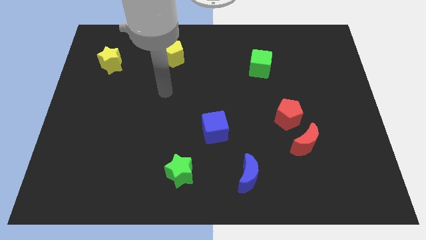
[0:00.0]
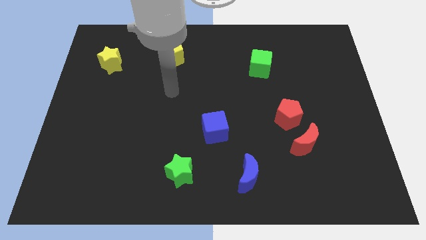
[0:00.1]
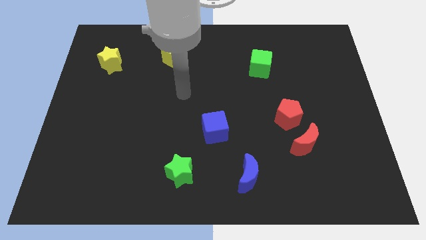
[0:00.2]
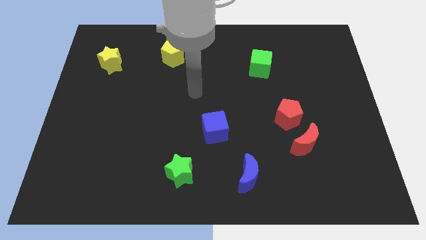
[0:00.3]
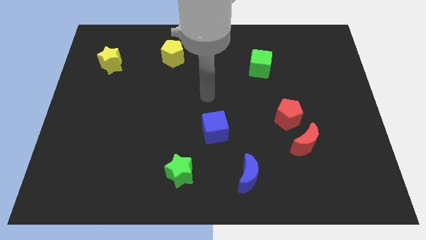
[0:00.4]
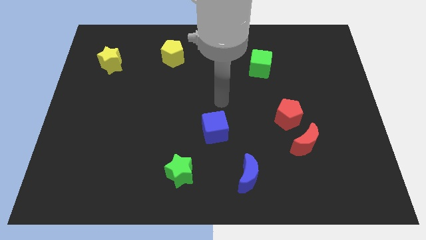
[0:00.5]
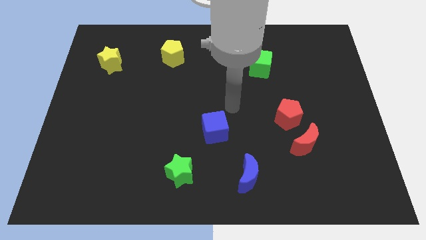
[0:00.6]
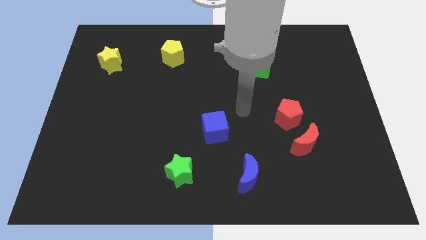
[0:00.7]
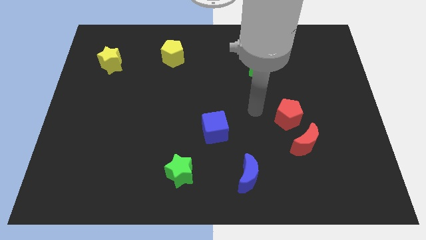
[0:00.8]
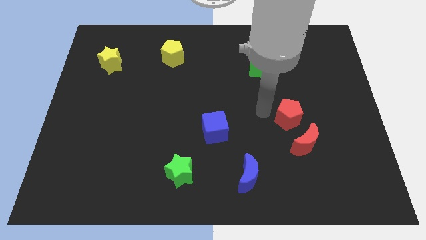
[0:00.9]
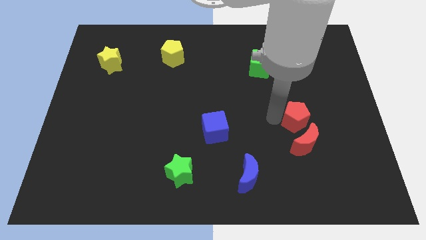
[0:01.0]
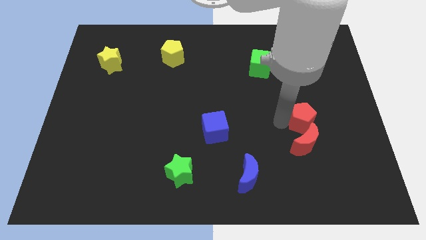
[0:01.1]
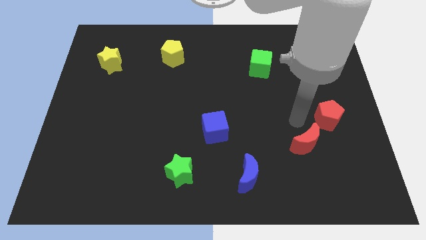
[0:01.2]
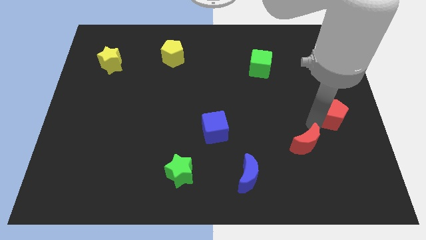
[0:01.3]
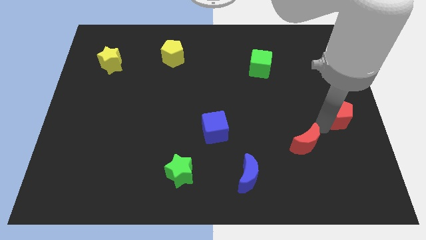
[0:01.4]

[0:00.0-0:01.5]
move the red moon away from the red pentagon

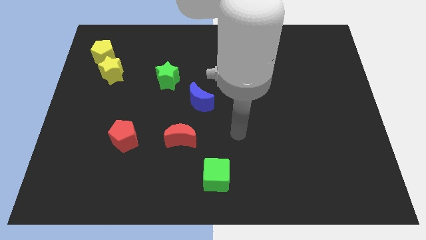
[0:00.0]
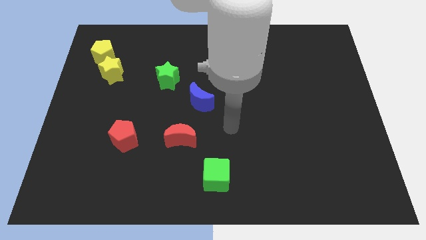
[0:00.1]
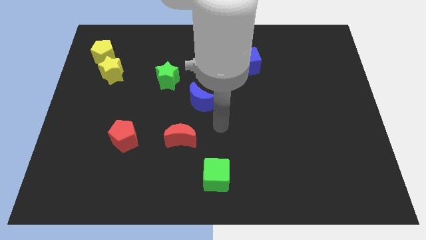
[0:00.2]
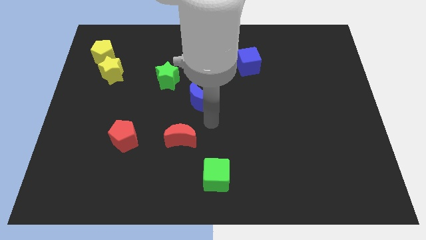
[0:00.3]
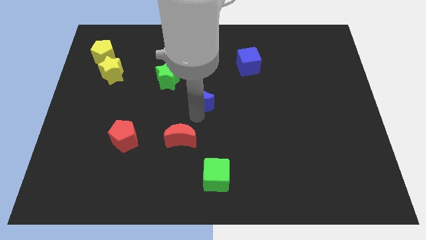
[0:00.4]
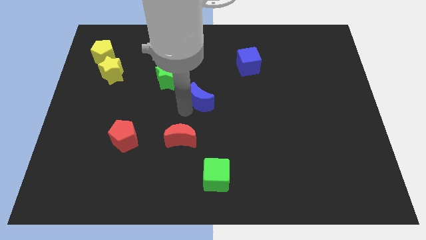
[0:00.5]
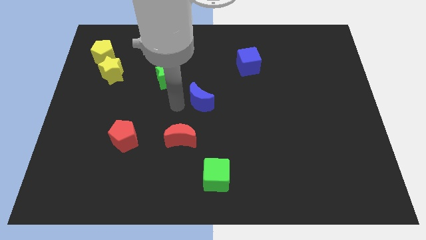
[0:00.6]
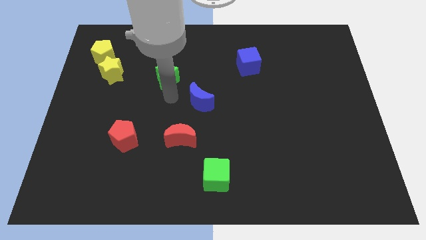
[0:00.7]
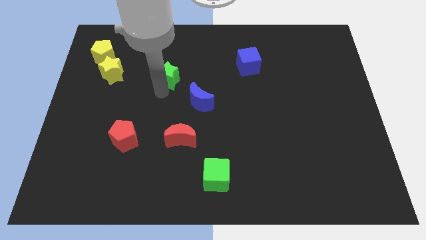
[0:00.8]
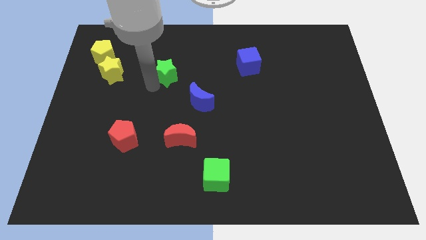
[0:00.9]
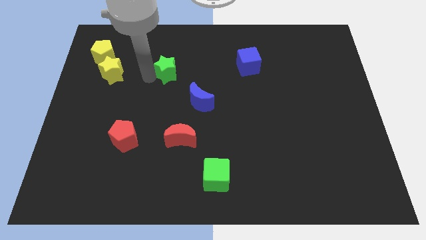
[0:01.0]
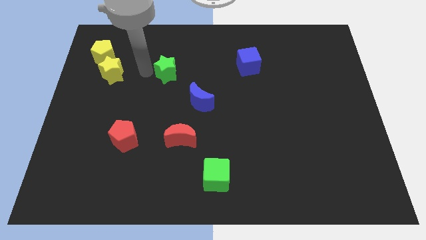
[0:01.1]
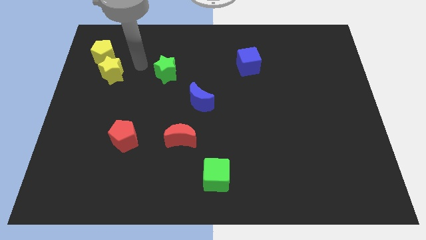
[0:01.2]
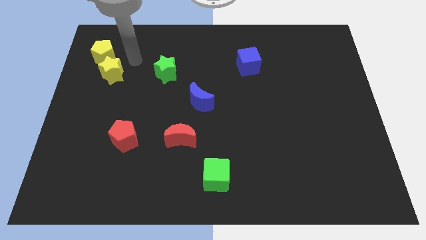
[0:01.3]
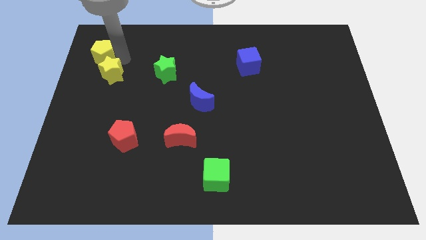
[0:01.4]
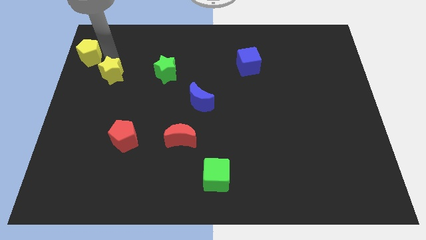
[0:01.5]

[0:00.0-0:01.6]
move the yellow star away from the yellow pentagon

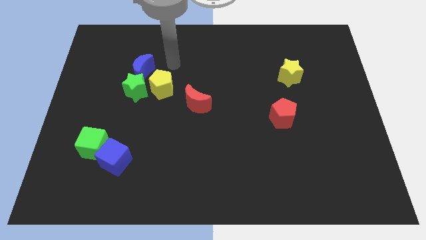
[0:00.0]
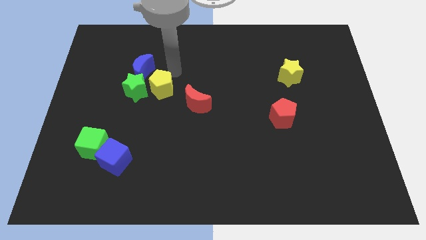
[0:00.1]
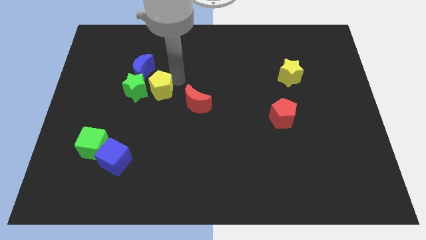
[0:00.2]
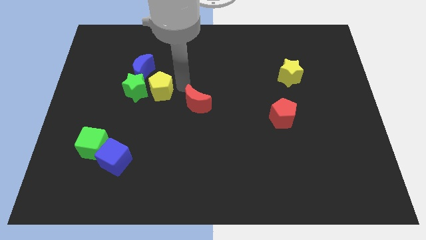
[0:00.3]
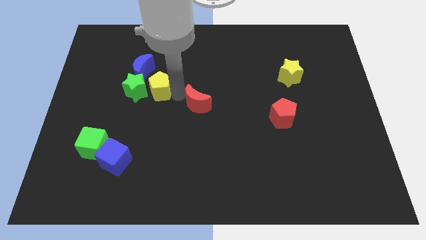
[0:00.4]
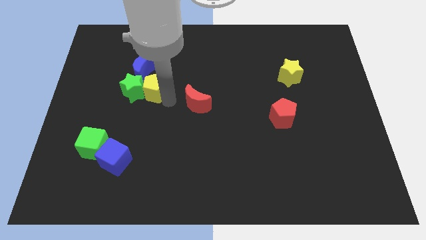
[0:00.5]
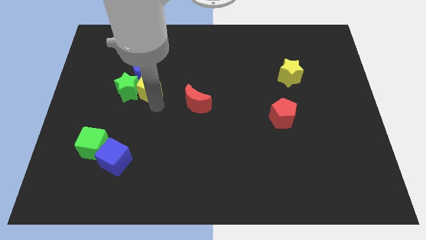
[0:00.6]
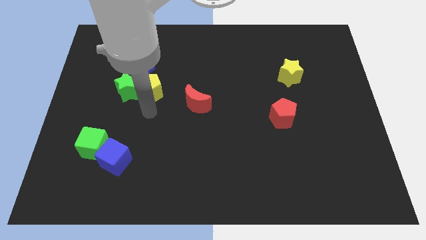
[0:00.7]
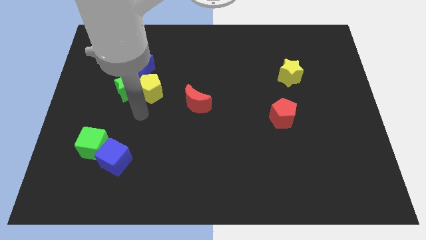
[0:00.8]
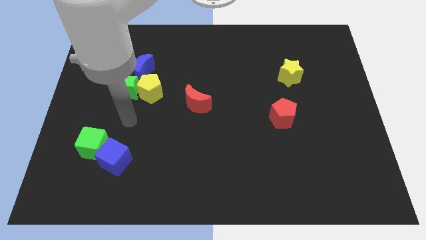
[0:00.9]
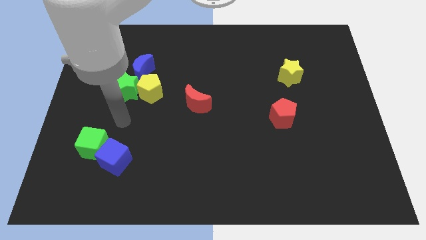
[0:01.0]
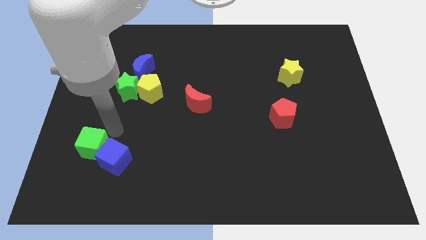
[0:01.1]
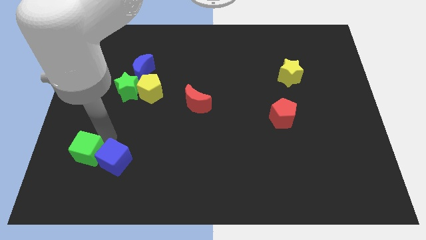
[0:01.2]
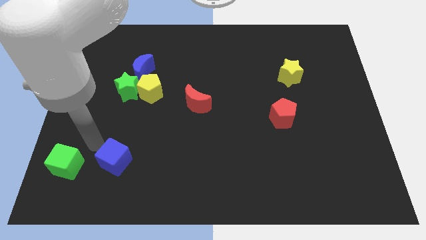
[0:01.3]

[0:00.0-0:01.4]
move the blue cube away from the green cube

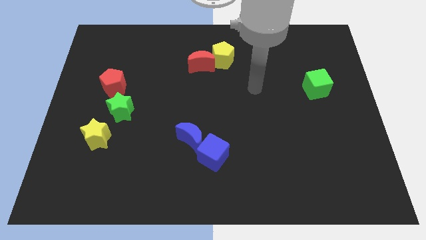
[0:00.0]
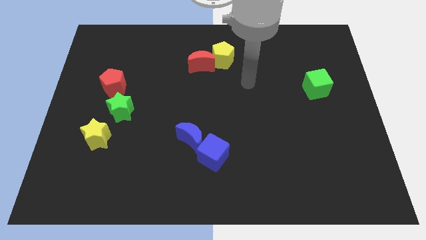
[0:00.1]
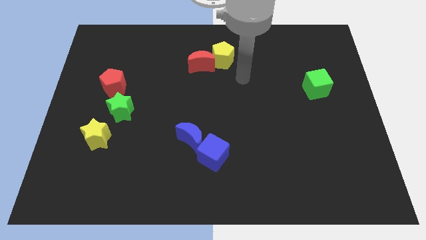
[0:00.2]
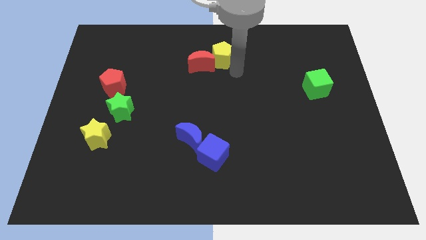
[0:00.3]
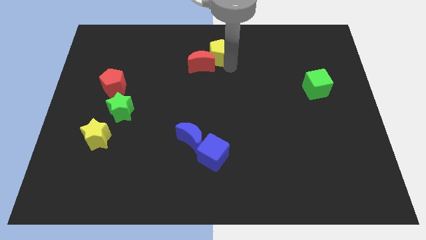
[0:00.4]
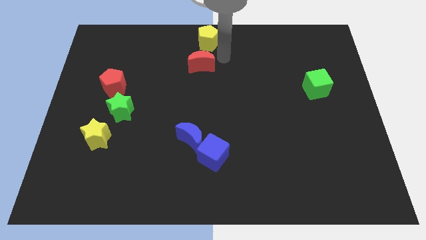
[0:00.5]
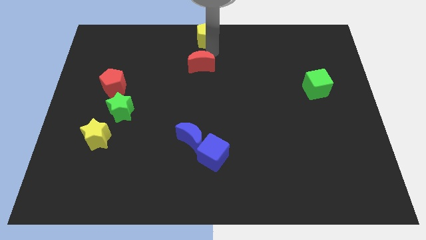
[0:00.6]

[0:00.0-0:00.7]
pull the red moon apart from the yellow pentagon

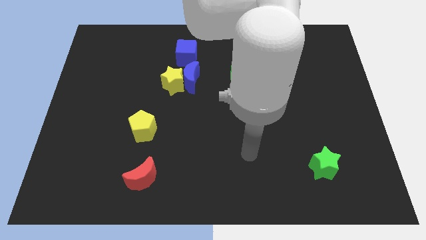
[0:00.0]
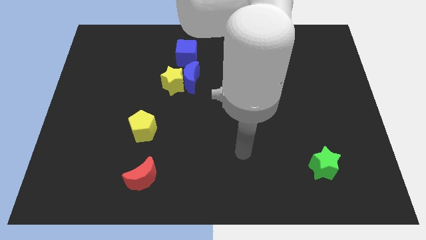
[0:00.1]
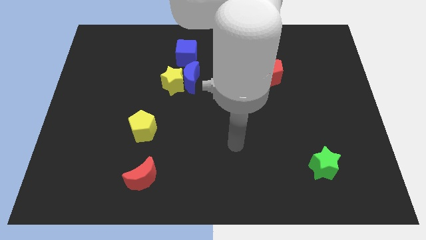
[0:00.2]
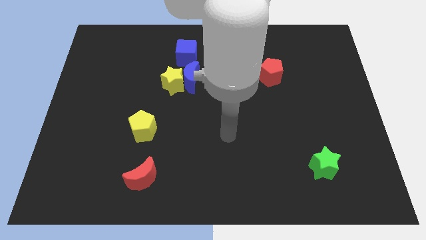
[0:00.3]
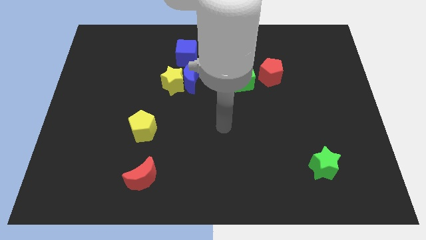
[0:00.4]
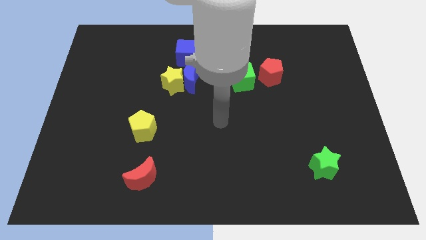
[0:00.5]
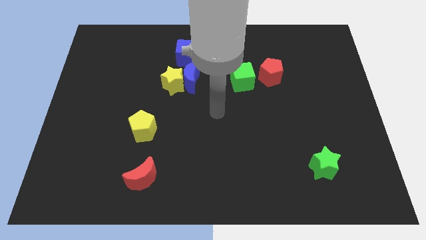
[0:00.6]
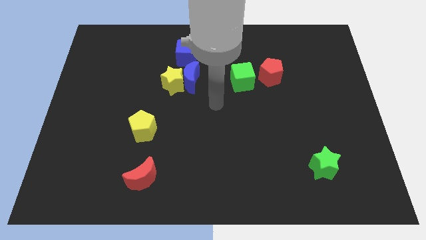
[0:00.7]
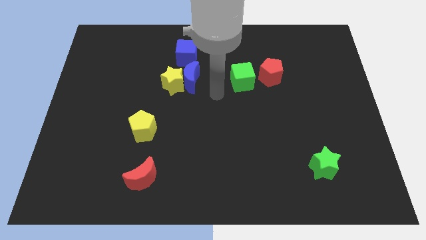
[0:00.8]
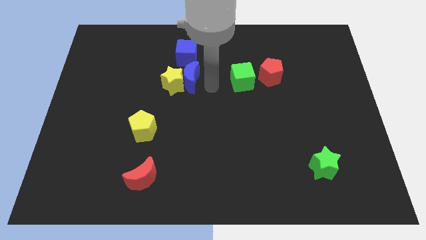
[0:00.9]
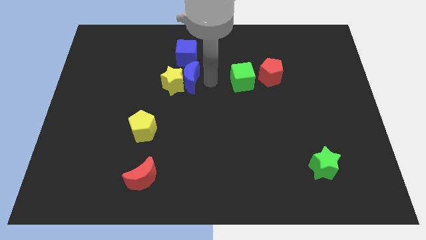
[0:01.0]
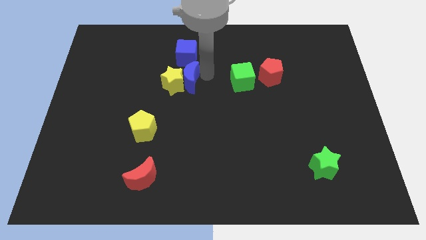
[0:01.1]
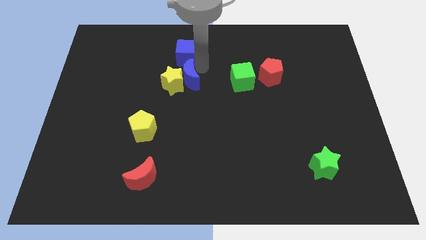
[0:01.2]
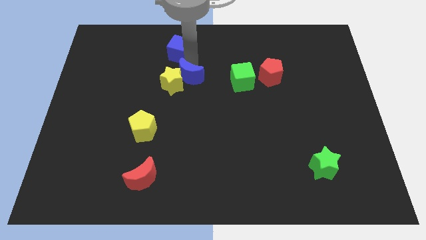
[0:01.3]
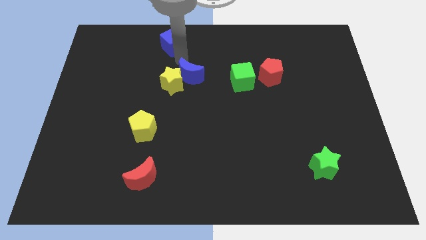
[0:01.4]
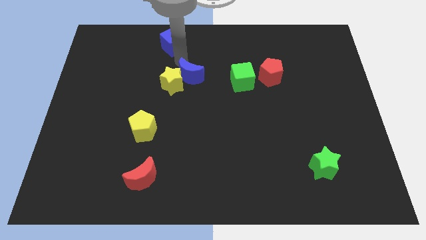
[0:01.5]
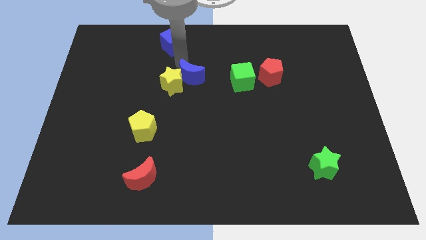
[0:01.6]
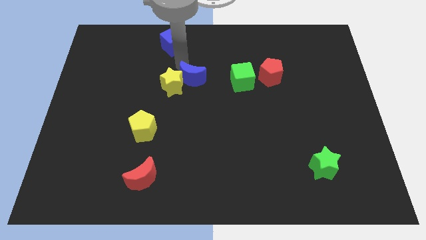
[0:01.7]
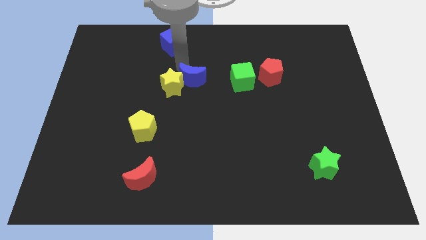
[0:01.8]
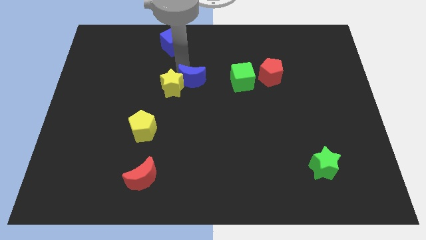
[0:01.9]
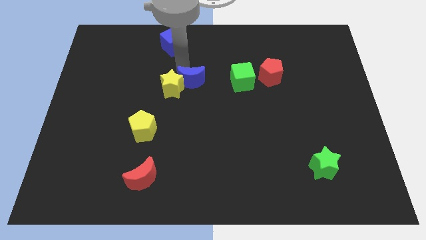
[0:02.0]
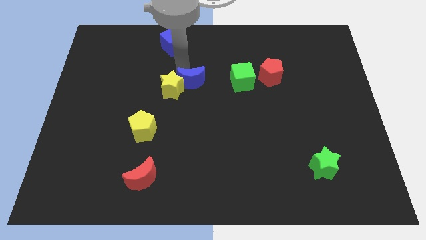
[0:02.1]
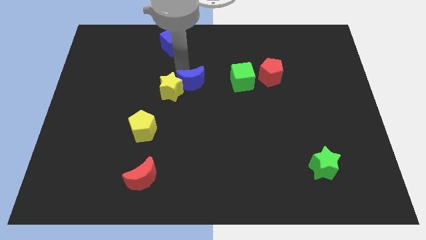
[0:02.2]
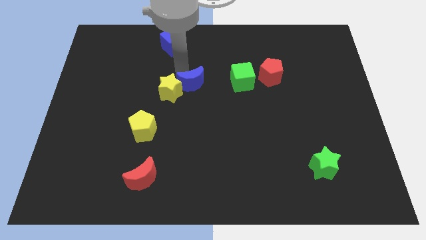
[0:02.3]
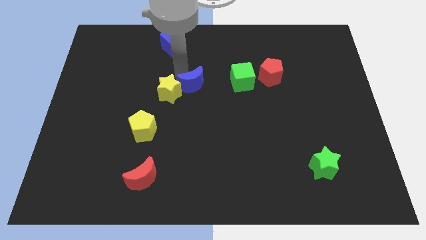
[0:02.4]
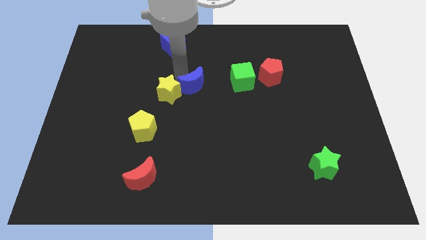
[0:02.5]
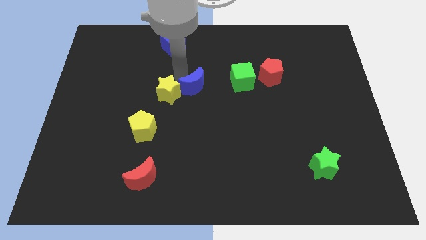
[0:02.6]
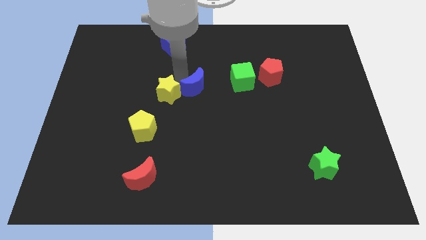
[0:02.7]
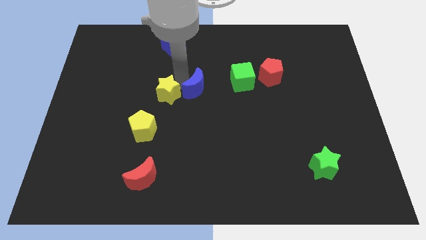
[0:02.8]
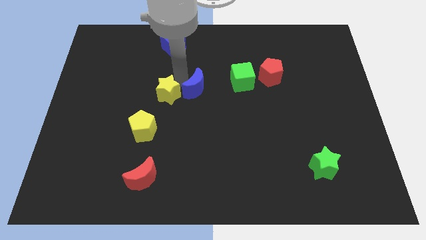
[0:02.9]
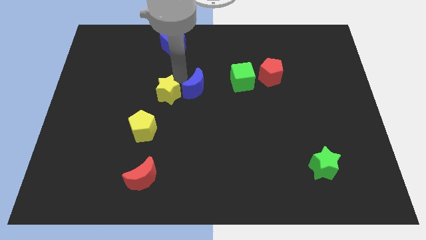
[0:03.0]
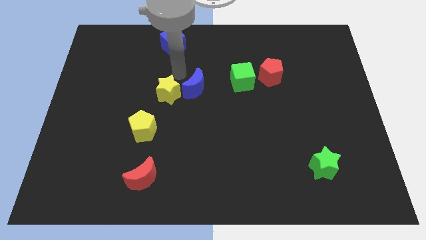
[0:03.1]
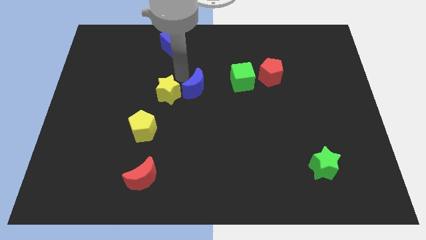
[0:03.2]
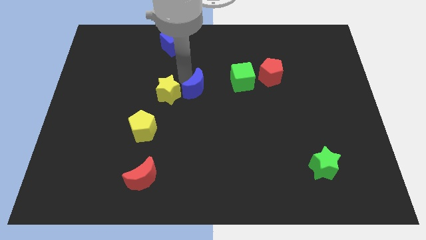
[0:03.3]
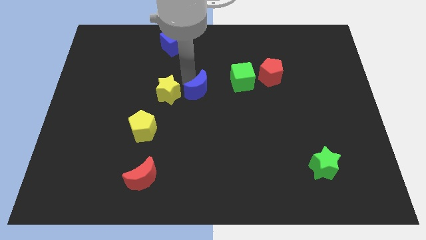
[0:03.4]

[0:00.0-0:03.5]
separate the blue moon from the yellow star and blue cube

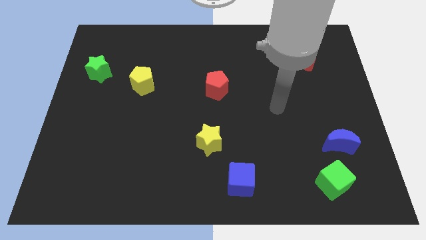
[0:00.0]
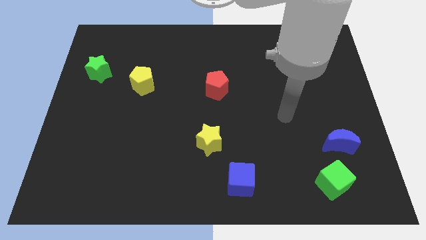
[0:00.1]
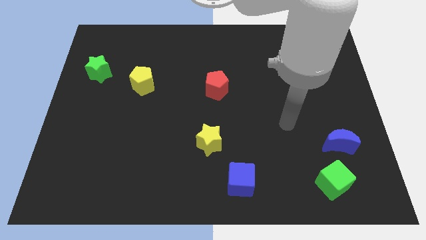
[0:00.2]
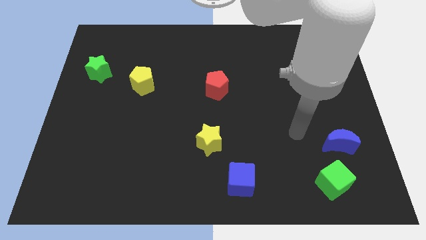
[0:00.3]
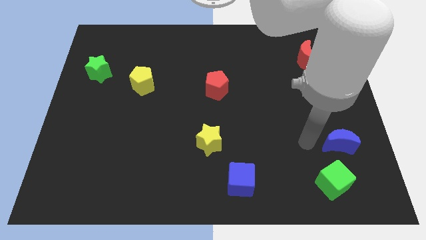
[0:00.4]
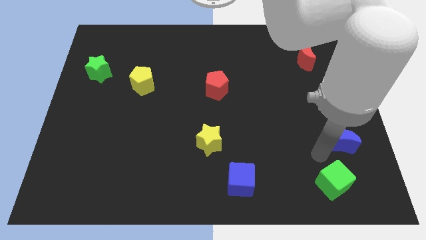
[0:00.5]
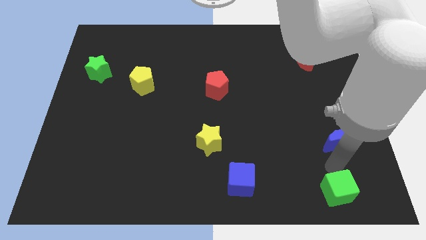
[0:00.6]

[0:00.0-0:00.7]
move the blue moon away from the green cube
